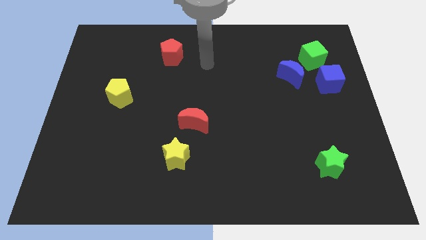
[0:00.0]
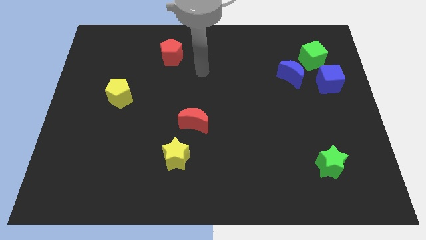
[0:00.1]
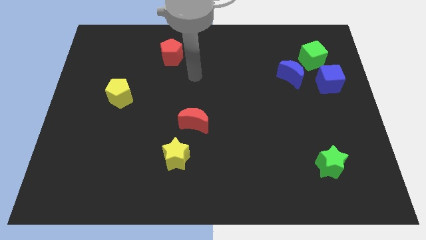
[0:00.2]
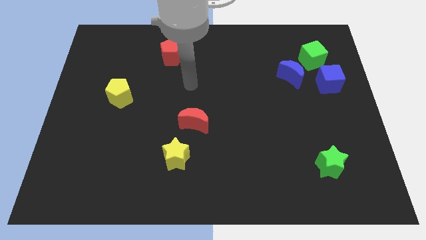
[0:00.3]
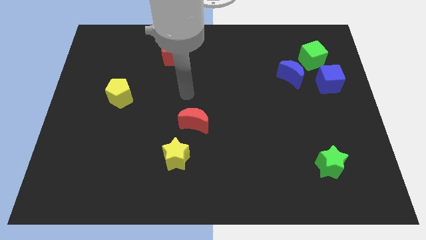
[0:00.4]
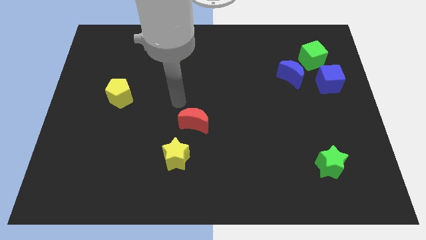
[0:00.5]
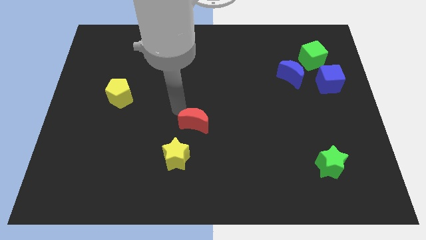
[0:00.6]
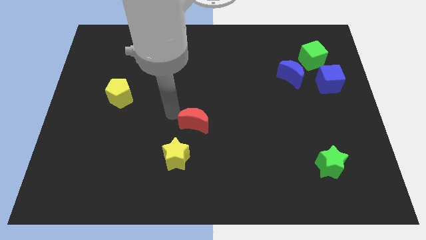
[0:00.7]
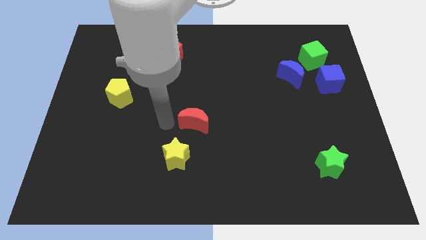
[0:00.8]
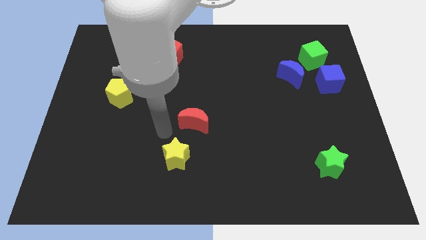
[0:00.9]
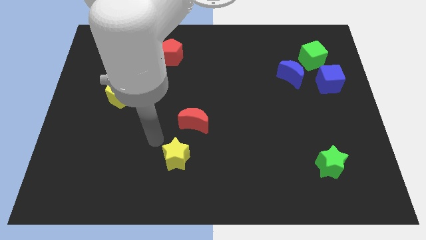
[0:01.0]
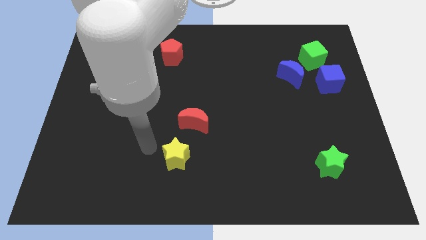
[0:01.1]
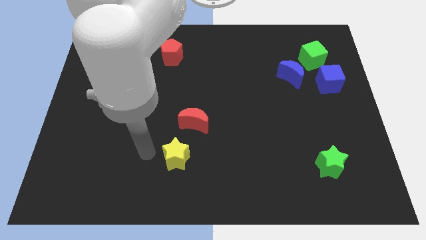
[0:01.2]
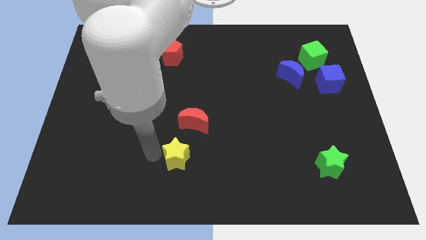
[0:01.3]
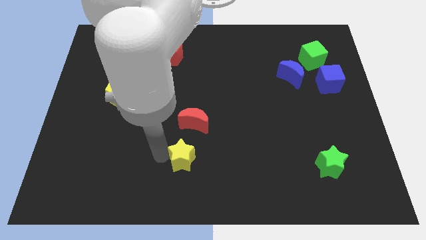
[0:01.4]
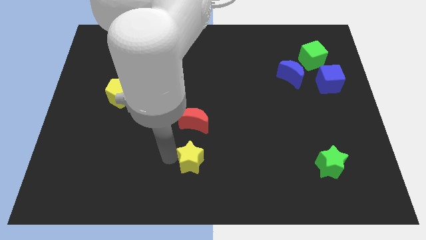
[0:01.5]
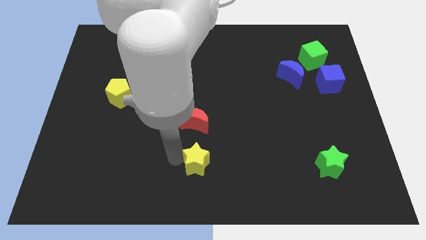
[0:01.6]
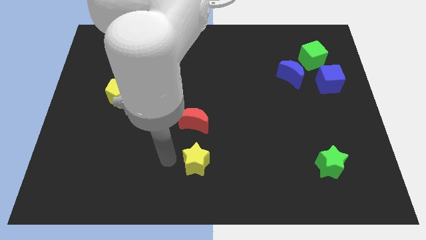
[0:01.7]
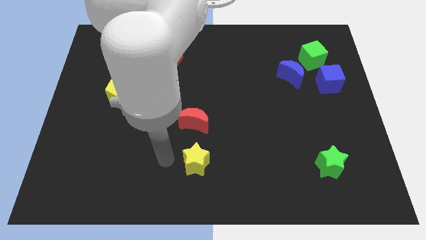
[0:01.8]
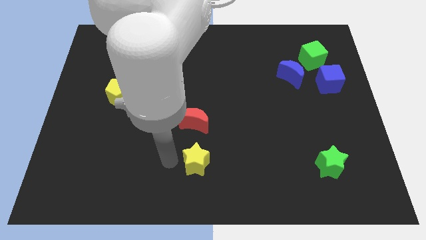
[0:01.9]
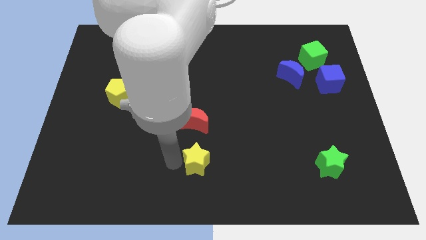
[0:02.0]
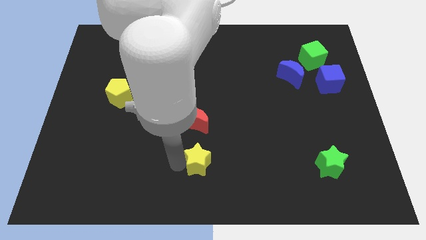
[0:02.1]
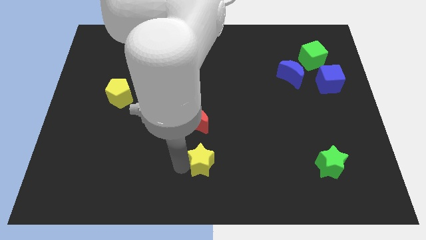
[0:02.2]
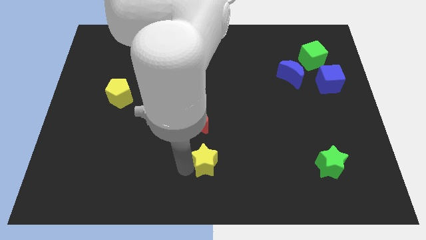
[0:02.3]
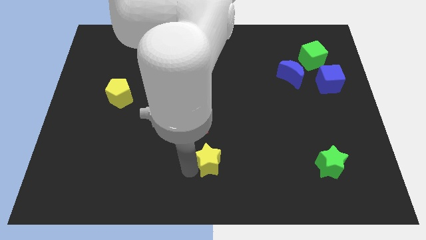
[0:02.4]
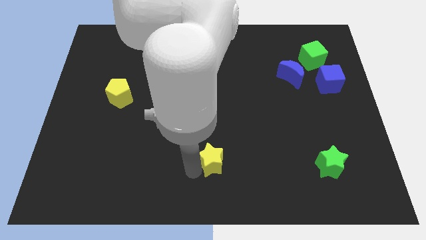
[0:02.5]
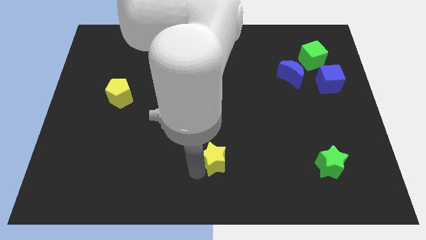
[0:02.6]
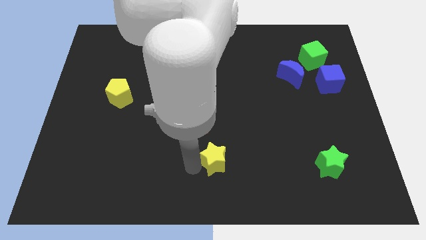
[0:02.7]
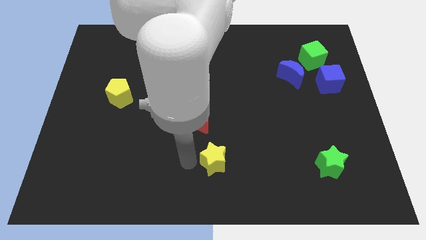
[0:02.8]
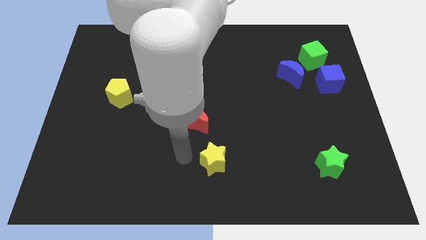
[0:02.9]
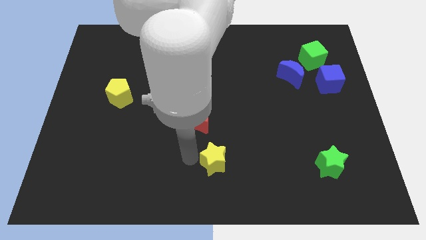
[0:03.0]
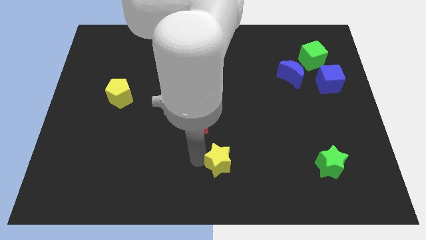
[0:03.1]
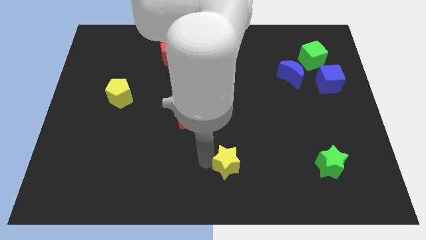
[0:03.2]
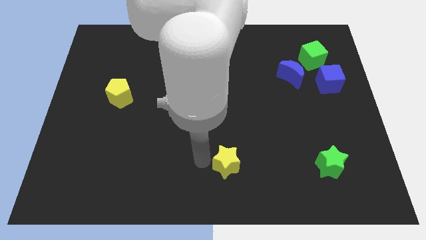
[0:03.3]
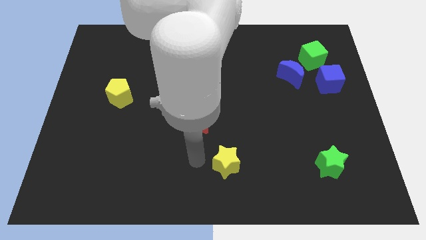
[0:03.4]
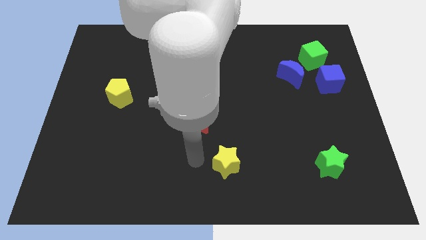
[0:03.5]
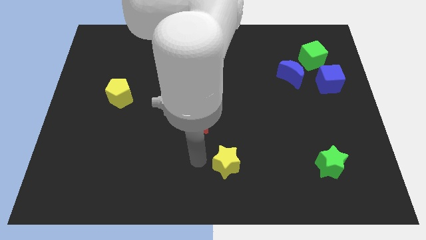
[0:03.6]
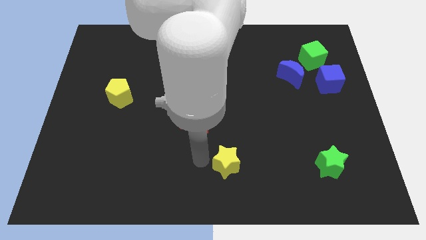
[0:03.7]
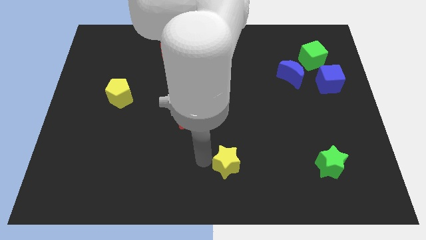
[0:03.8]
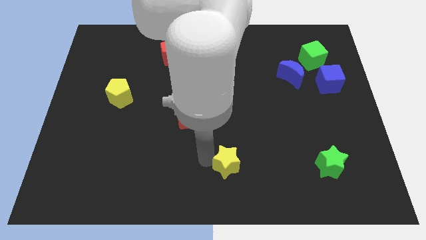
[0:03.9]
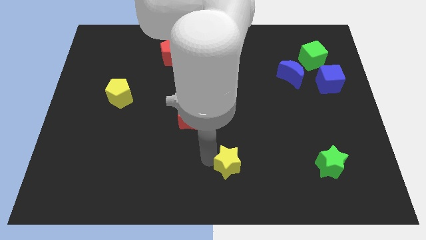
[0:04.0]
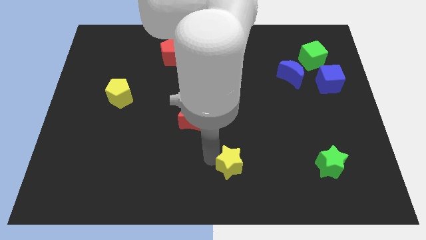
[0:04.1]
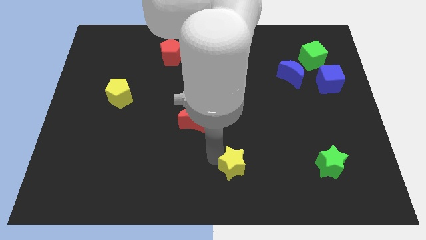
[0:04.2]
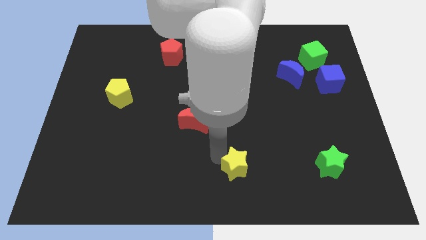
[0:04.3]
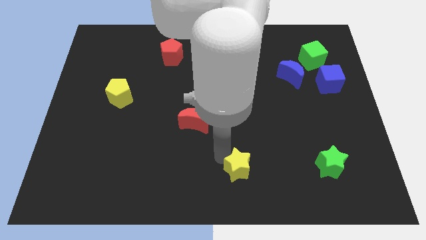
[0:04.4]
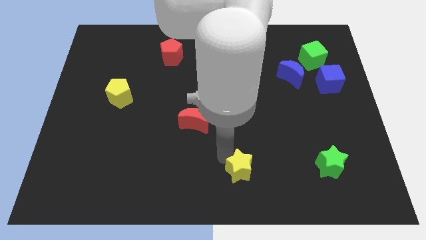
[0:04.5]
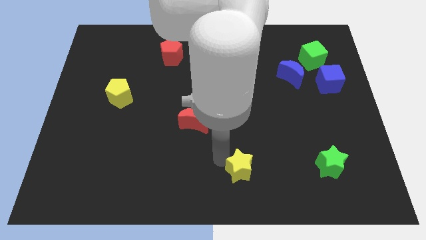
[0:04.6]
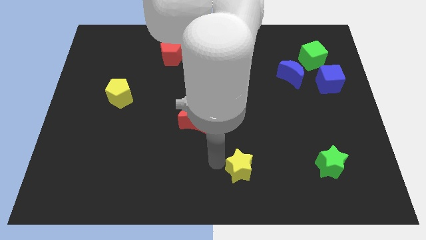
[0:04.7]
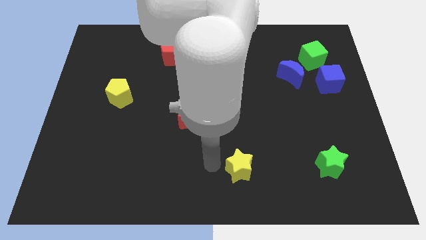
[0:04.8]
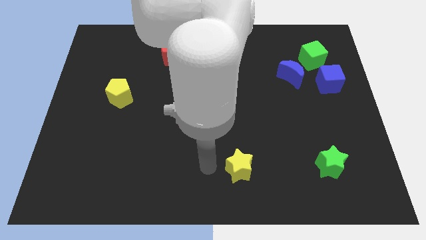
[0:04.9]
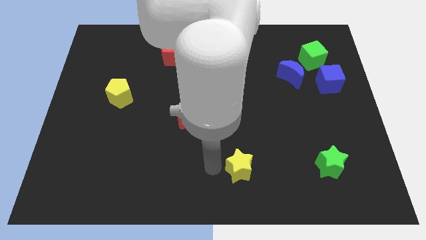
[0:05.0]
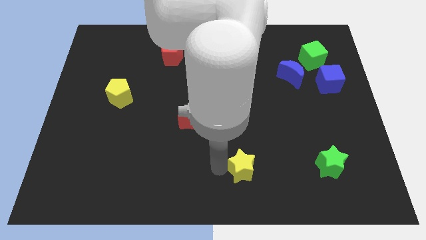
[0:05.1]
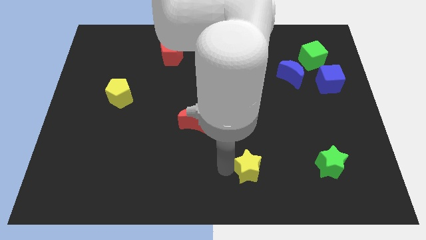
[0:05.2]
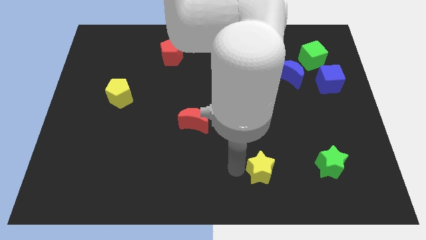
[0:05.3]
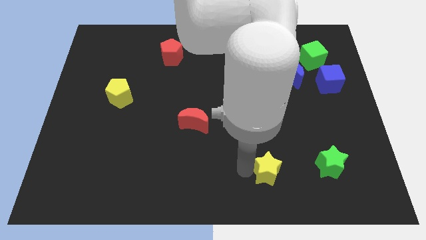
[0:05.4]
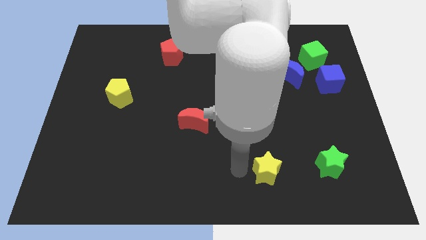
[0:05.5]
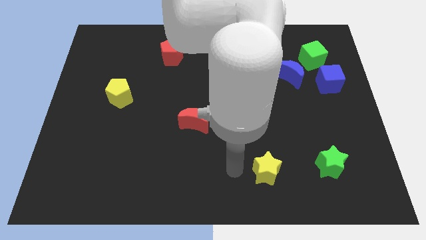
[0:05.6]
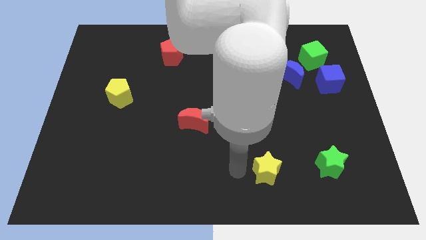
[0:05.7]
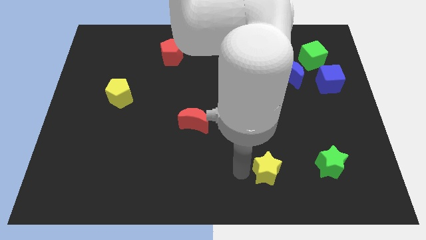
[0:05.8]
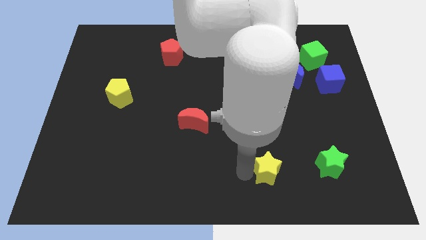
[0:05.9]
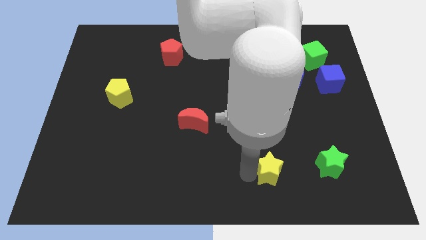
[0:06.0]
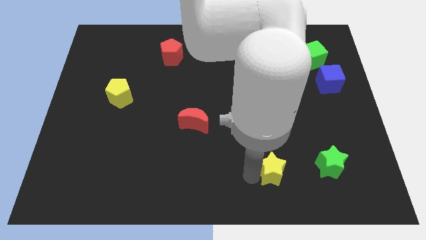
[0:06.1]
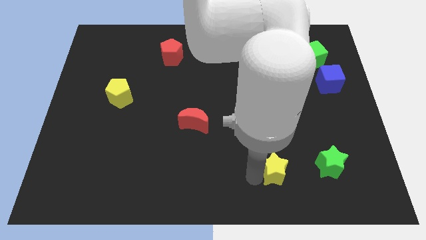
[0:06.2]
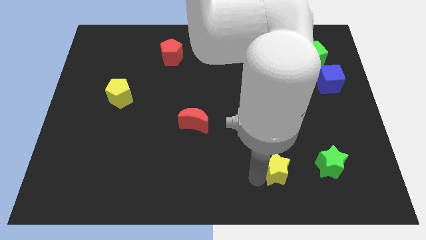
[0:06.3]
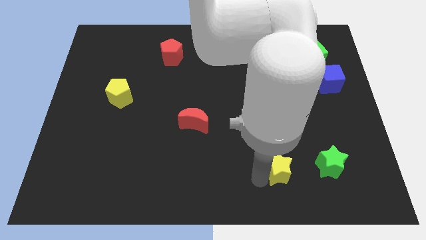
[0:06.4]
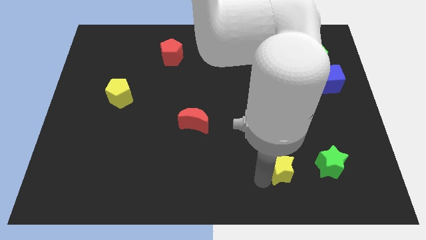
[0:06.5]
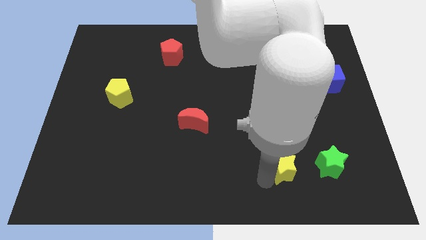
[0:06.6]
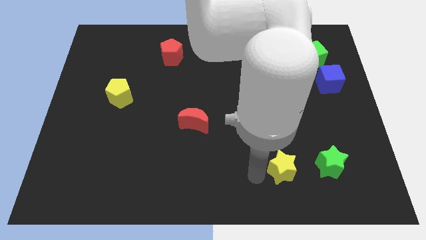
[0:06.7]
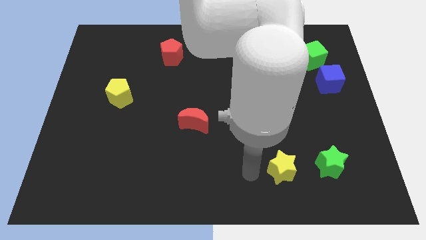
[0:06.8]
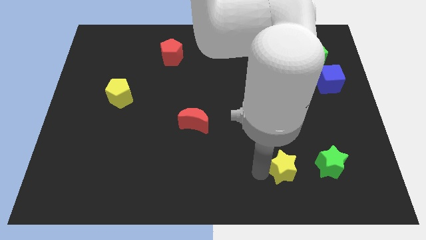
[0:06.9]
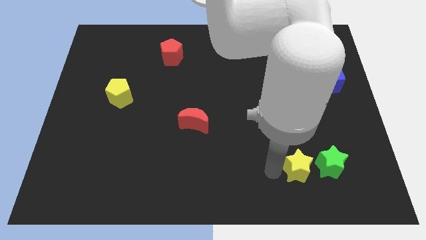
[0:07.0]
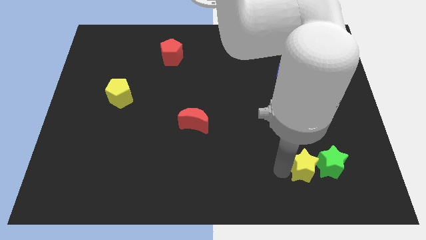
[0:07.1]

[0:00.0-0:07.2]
push the yellow star next to the green star
